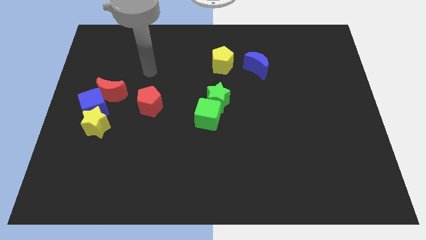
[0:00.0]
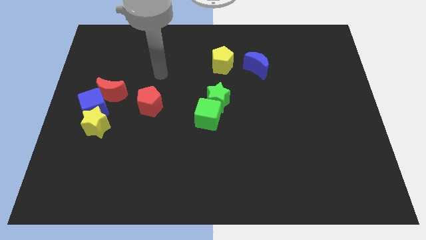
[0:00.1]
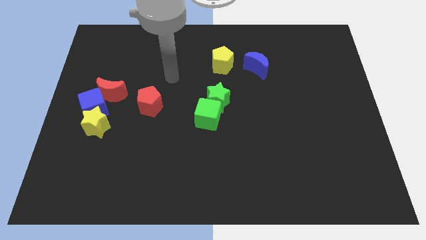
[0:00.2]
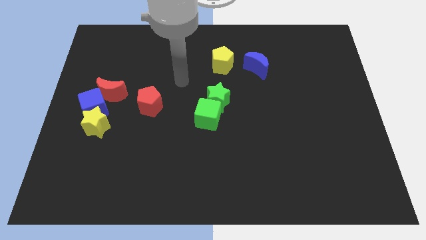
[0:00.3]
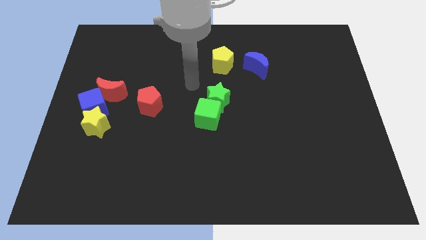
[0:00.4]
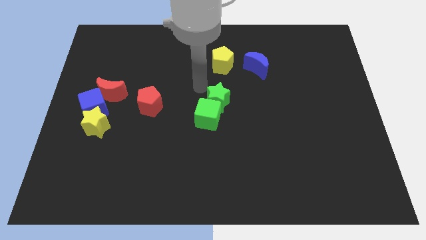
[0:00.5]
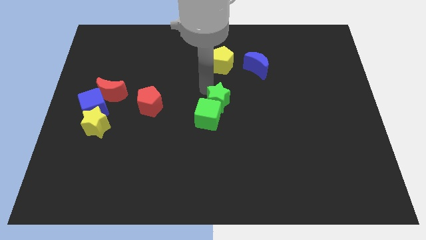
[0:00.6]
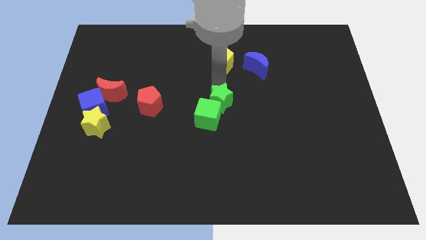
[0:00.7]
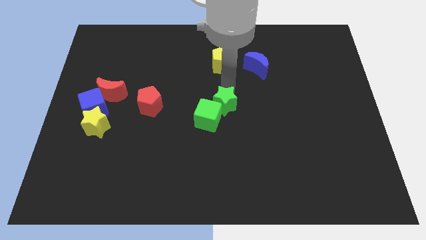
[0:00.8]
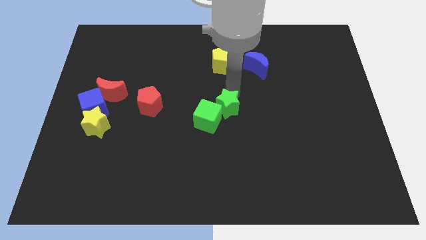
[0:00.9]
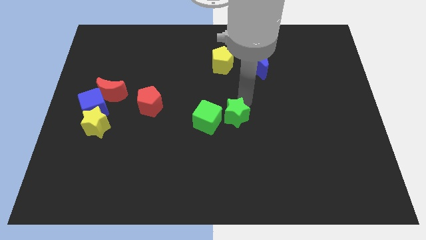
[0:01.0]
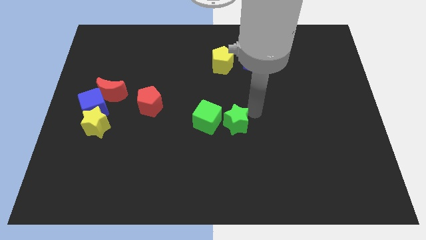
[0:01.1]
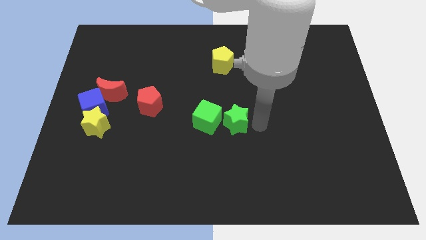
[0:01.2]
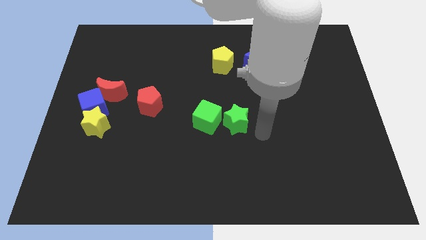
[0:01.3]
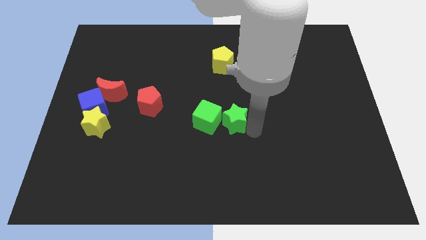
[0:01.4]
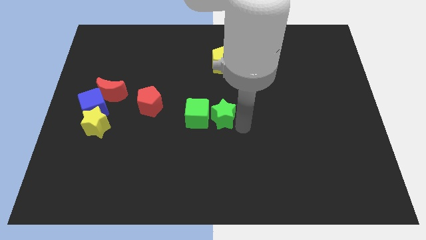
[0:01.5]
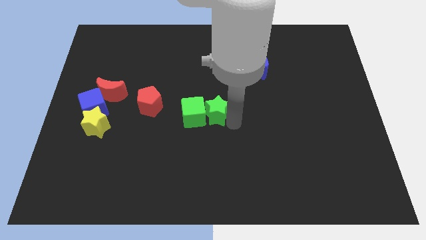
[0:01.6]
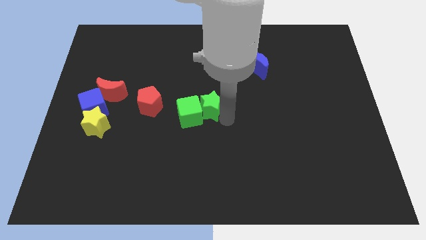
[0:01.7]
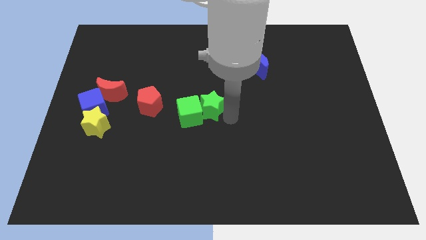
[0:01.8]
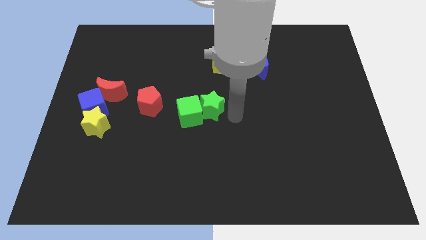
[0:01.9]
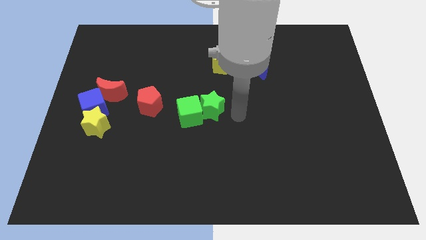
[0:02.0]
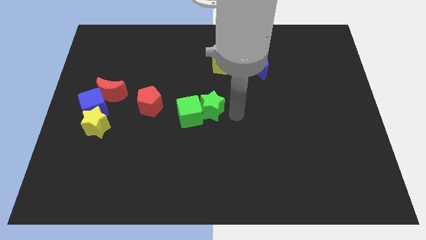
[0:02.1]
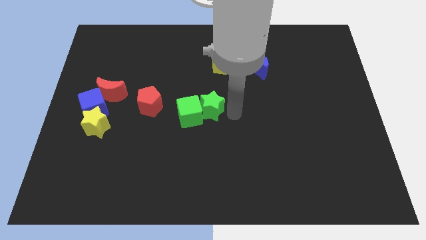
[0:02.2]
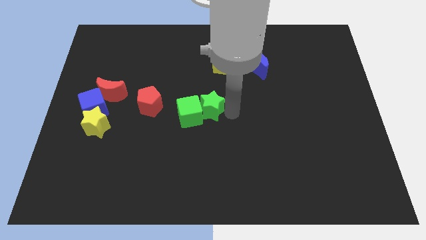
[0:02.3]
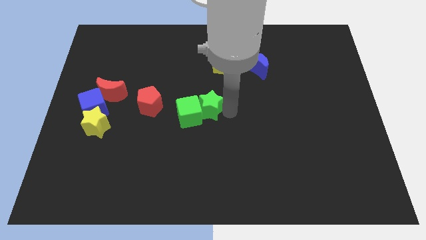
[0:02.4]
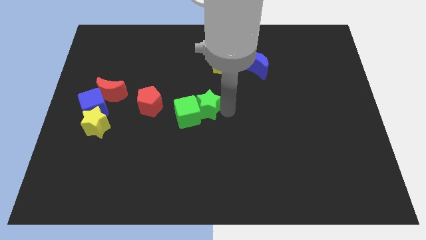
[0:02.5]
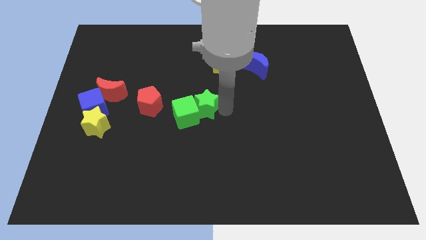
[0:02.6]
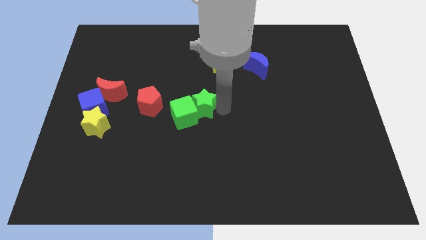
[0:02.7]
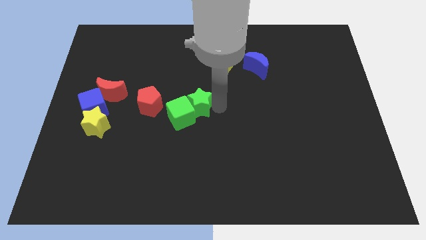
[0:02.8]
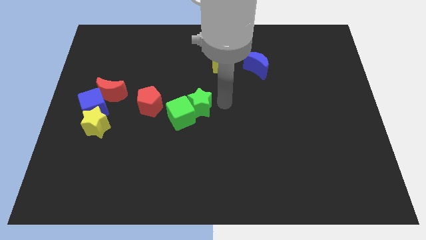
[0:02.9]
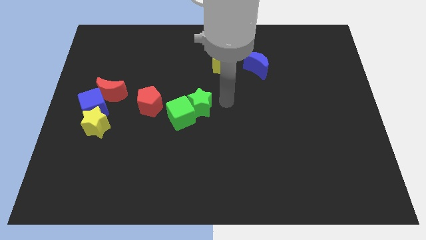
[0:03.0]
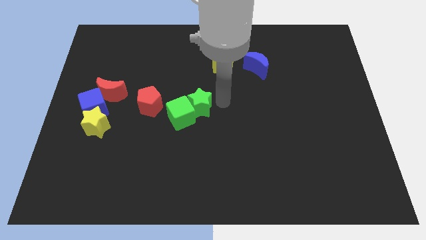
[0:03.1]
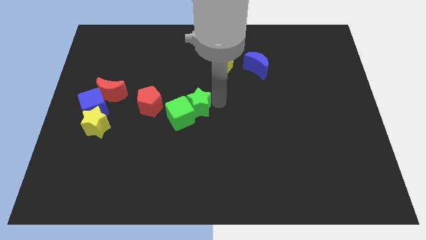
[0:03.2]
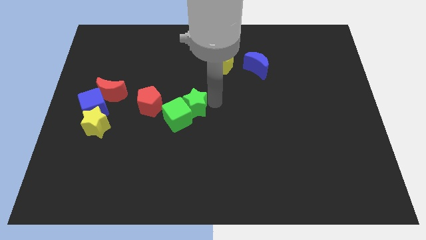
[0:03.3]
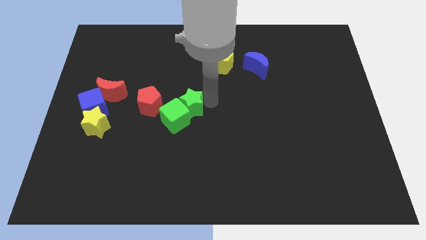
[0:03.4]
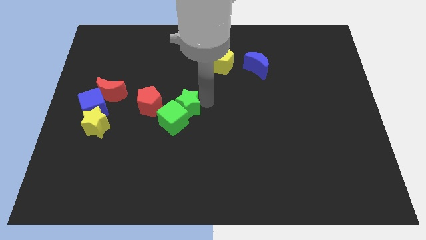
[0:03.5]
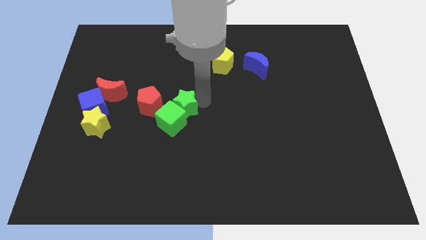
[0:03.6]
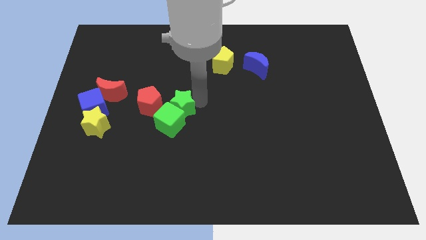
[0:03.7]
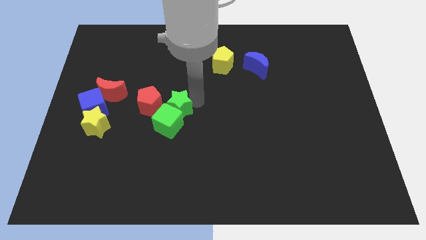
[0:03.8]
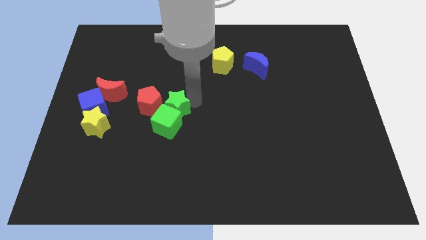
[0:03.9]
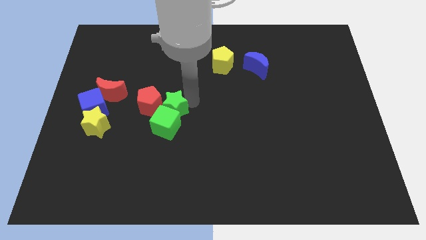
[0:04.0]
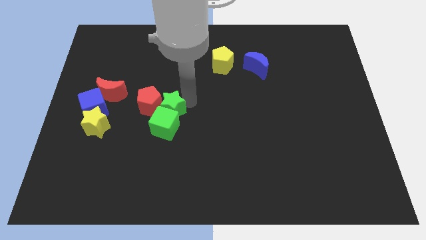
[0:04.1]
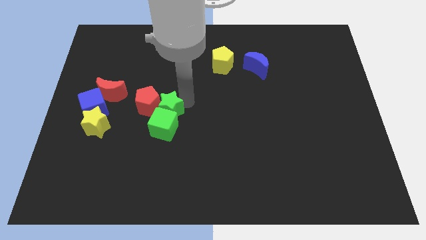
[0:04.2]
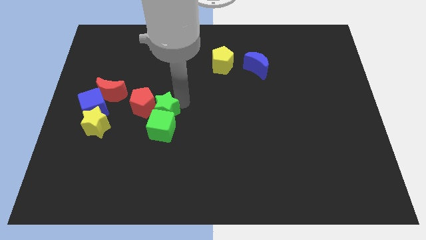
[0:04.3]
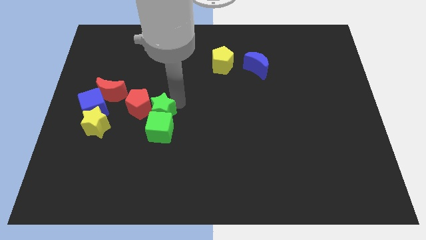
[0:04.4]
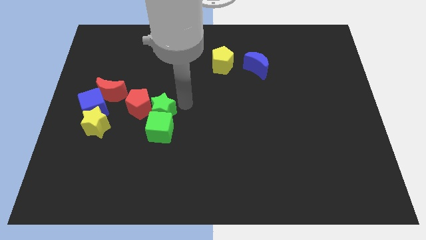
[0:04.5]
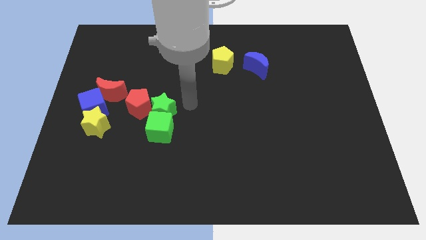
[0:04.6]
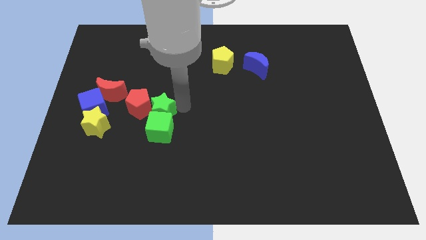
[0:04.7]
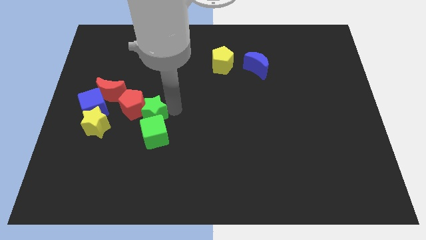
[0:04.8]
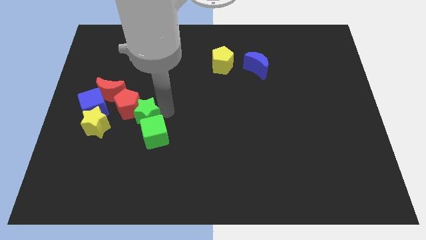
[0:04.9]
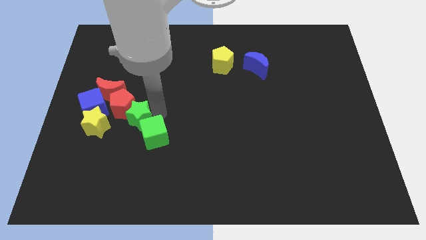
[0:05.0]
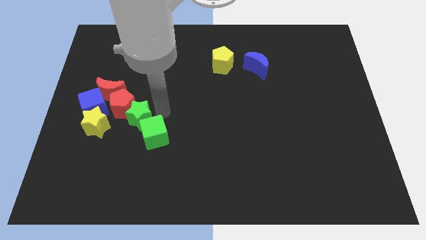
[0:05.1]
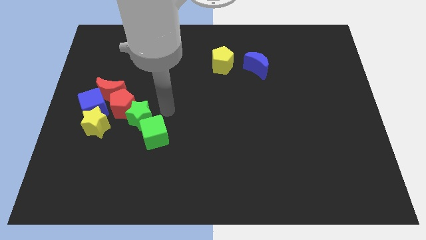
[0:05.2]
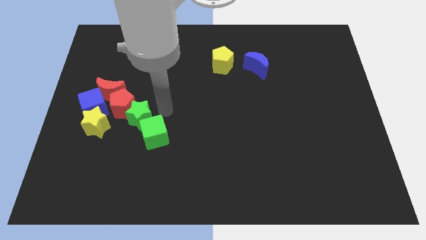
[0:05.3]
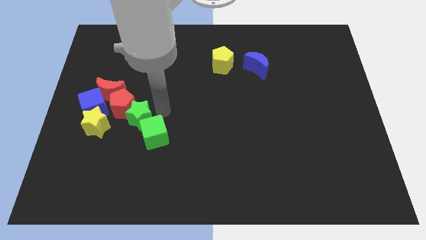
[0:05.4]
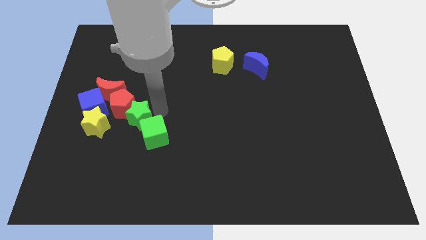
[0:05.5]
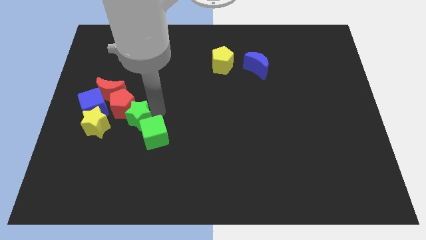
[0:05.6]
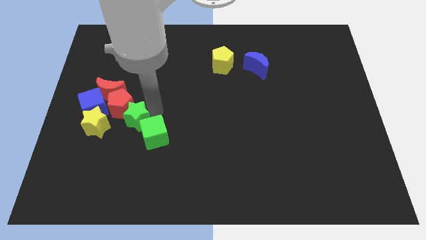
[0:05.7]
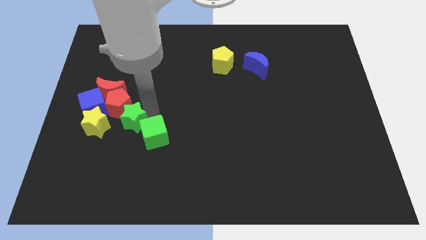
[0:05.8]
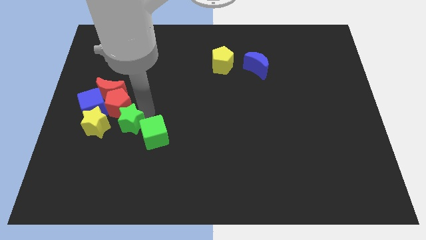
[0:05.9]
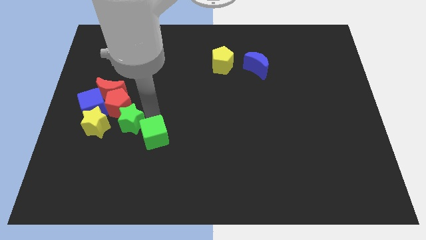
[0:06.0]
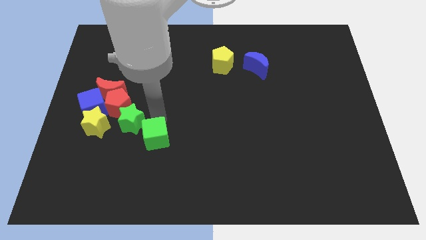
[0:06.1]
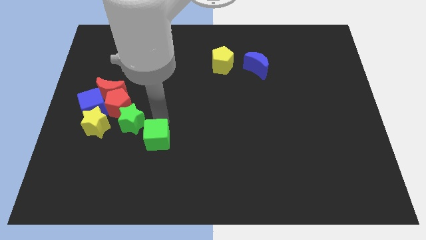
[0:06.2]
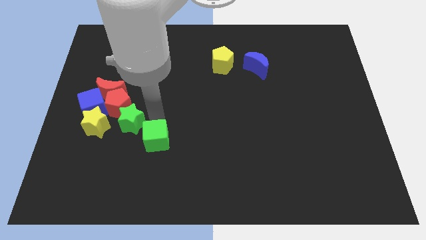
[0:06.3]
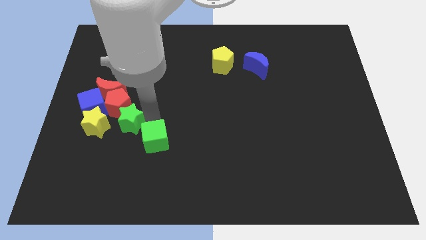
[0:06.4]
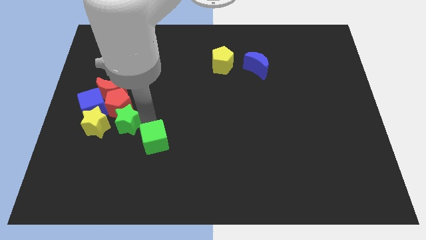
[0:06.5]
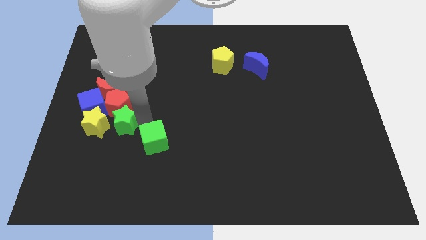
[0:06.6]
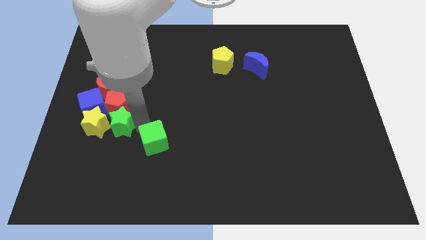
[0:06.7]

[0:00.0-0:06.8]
put the green star next to the yellow star
